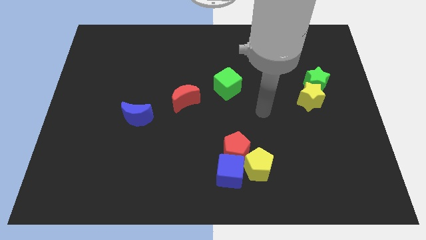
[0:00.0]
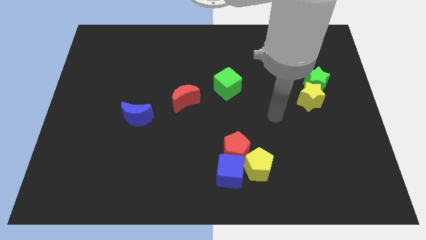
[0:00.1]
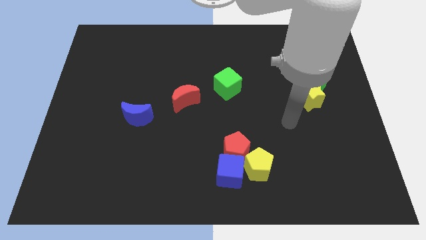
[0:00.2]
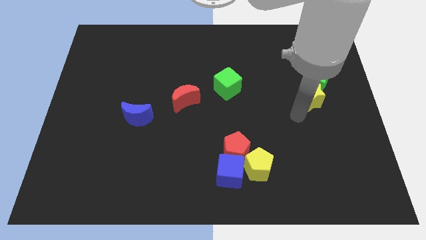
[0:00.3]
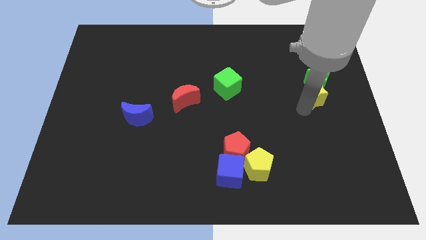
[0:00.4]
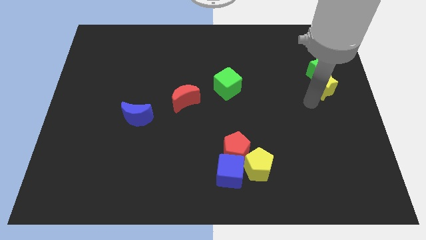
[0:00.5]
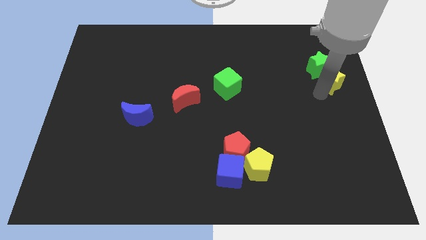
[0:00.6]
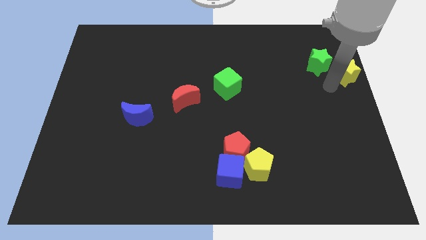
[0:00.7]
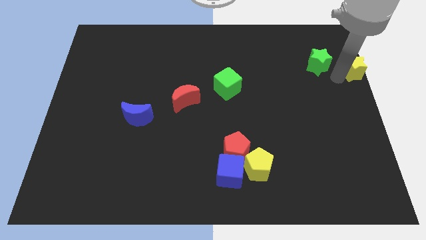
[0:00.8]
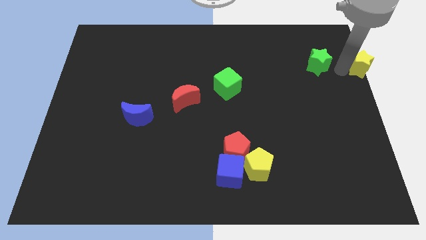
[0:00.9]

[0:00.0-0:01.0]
move the green star away from the yellow star

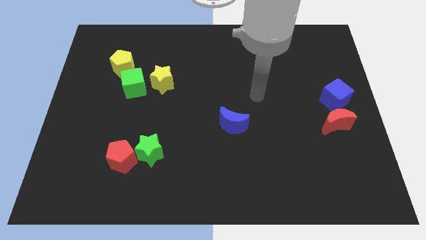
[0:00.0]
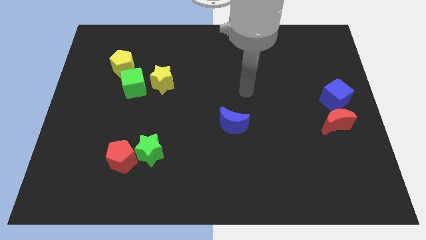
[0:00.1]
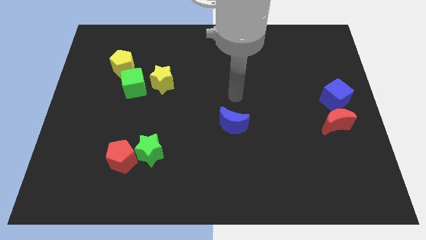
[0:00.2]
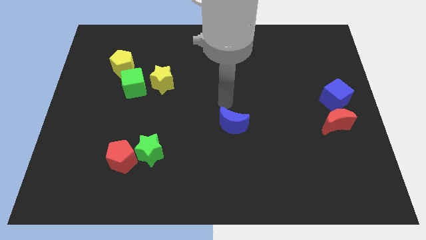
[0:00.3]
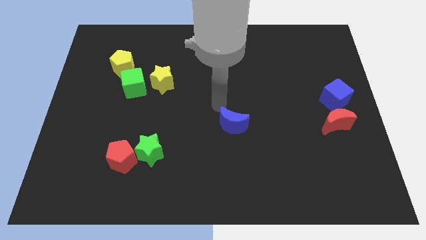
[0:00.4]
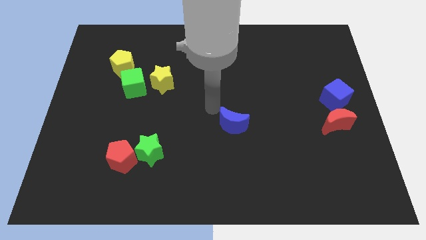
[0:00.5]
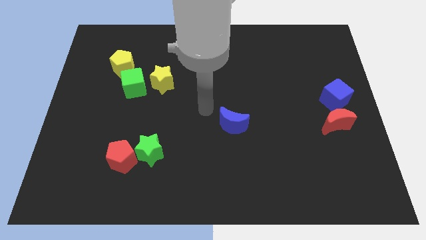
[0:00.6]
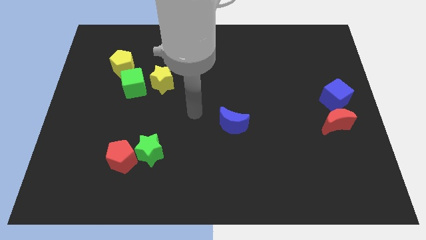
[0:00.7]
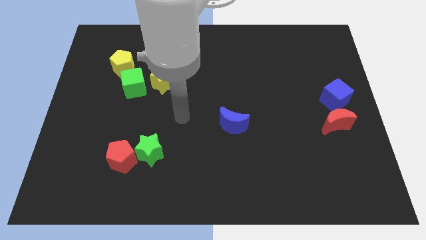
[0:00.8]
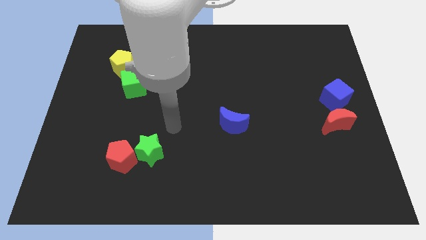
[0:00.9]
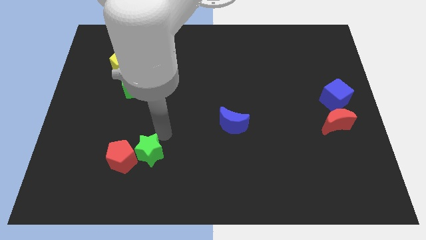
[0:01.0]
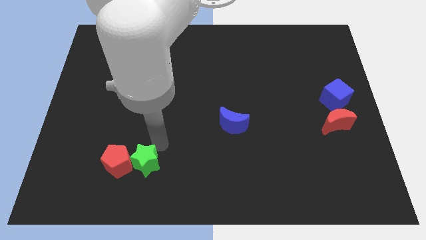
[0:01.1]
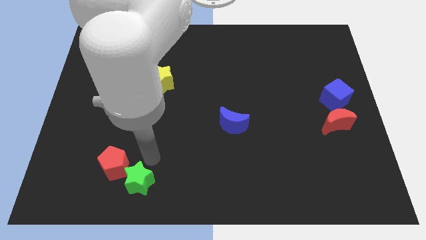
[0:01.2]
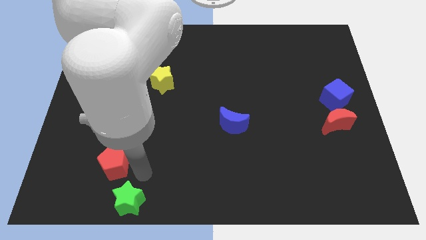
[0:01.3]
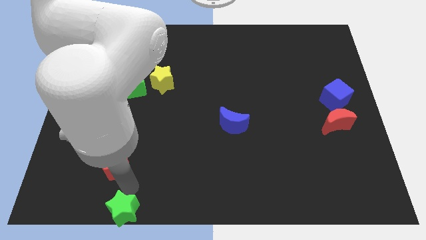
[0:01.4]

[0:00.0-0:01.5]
move the red pentagon away from the green star

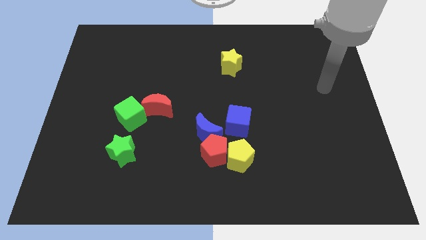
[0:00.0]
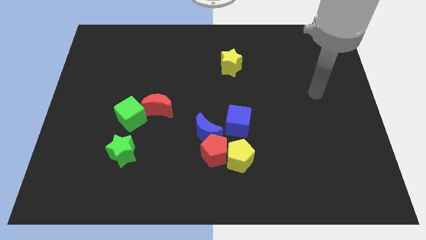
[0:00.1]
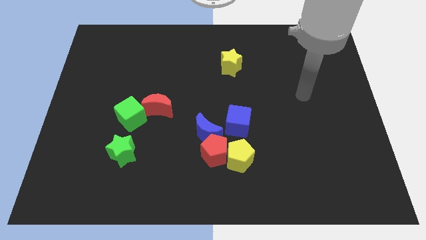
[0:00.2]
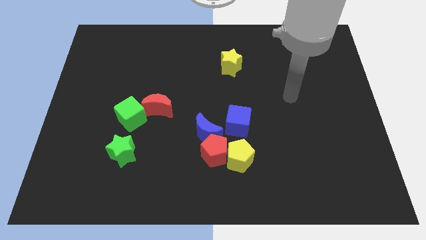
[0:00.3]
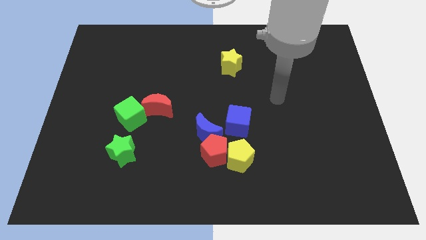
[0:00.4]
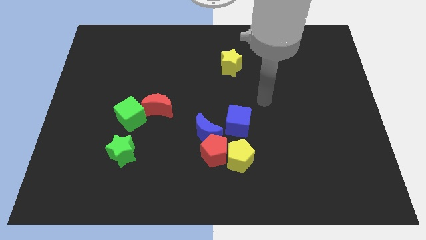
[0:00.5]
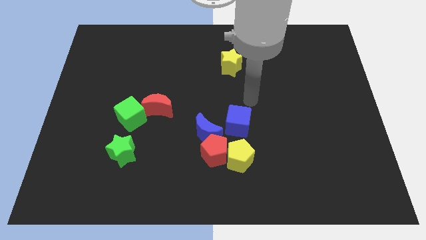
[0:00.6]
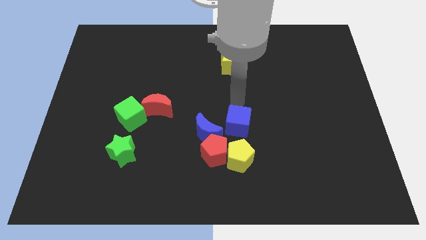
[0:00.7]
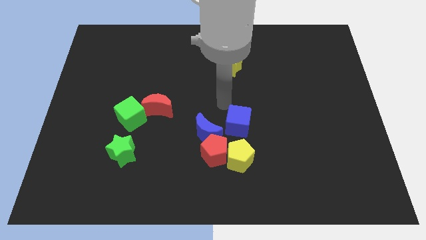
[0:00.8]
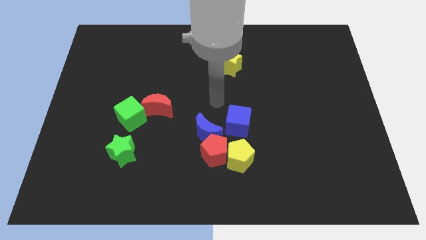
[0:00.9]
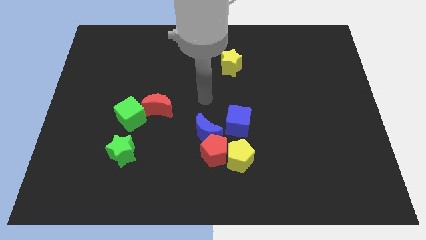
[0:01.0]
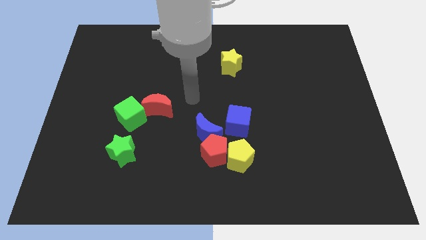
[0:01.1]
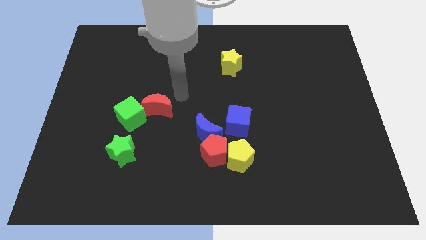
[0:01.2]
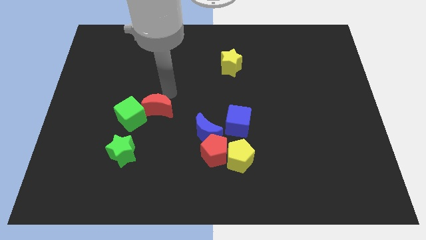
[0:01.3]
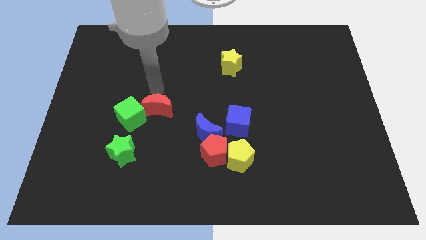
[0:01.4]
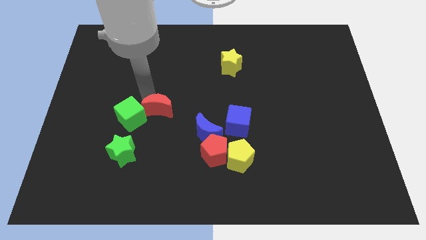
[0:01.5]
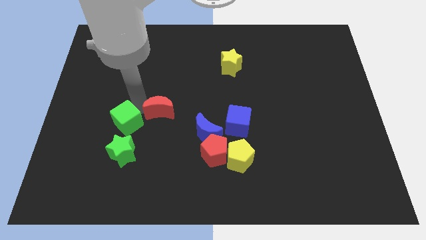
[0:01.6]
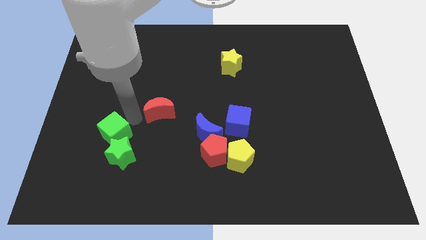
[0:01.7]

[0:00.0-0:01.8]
move the red moon away from the green cube

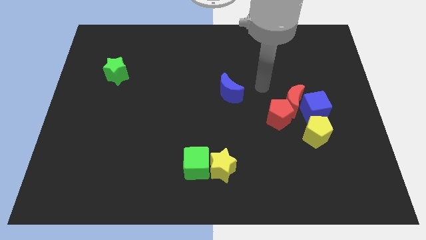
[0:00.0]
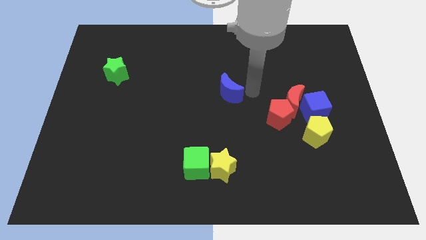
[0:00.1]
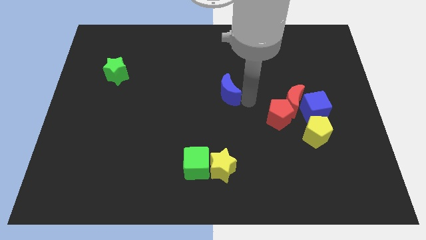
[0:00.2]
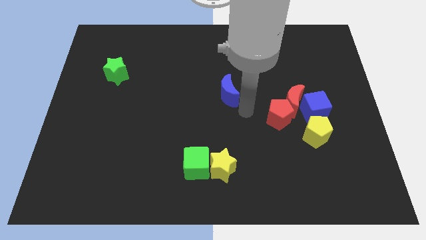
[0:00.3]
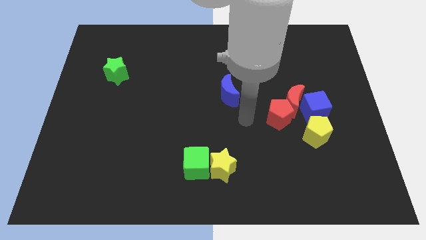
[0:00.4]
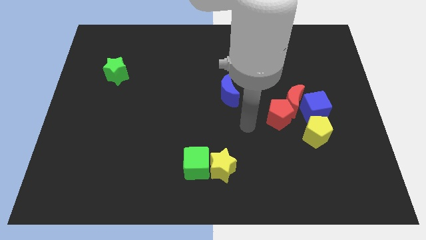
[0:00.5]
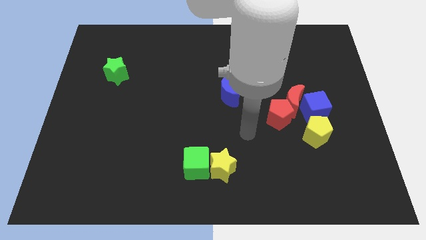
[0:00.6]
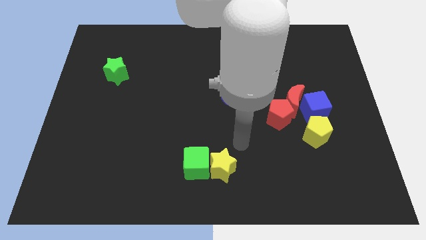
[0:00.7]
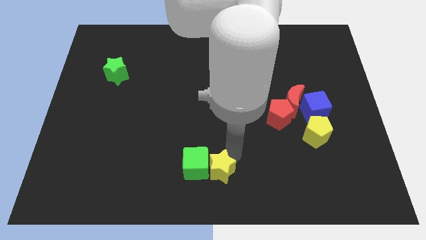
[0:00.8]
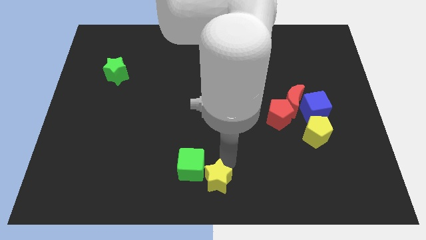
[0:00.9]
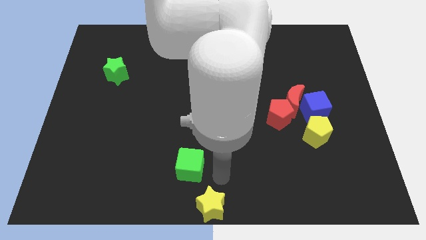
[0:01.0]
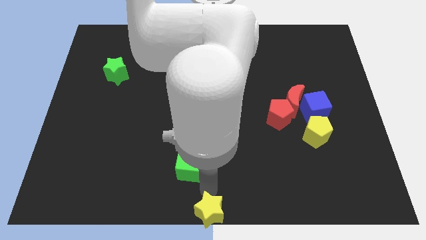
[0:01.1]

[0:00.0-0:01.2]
separate the green cube from the yellow star

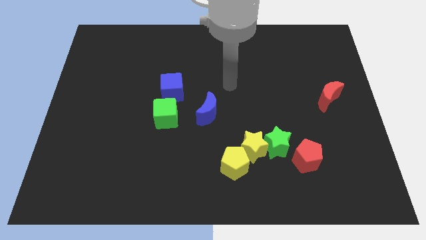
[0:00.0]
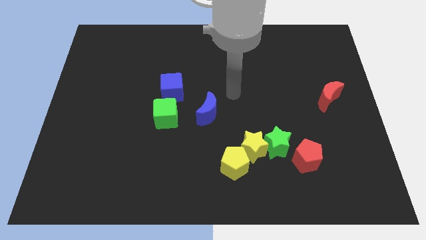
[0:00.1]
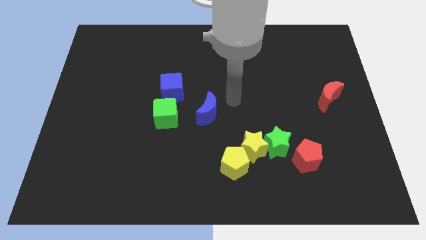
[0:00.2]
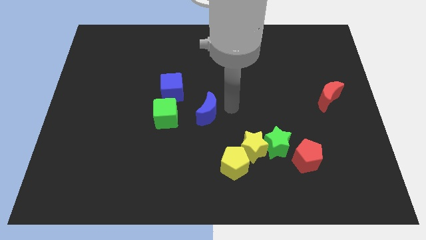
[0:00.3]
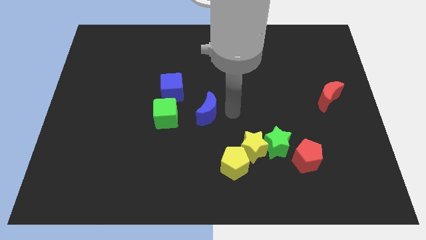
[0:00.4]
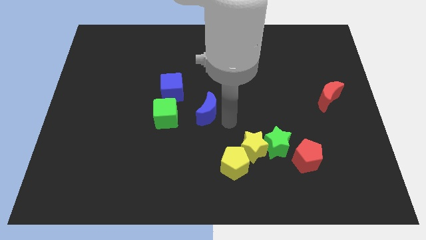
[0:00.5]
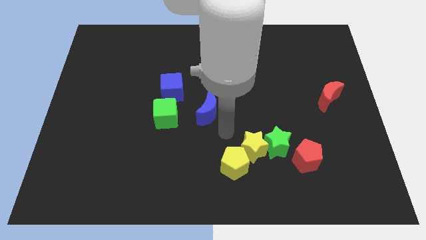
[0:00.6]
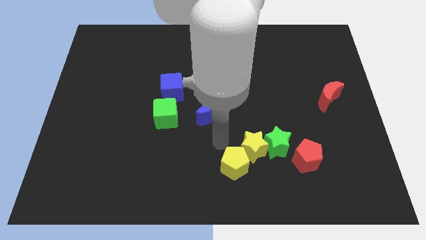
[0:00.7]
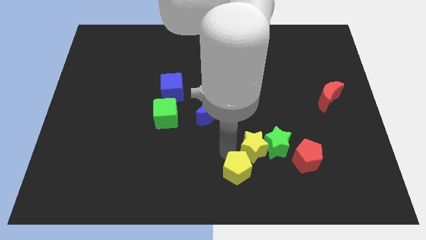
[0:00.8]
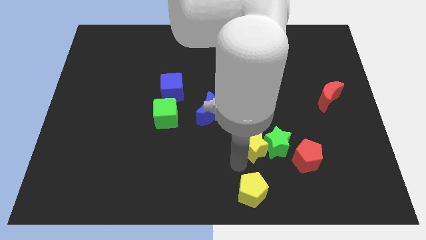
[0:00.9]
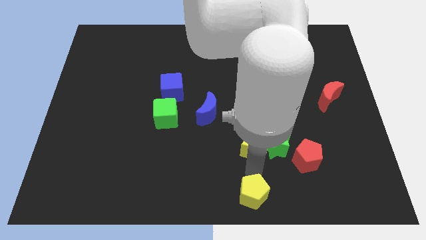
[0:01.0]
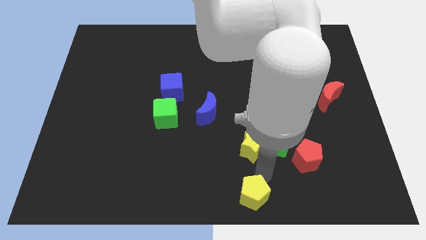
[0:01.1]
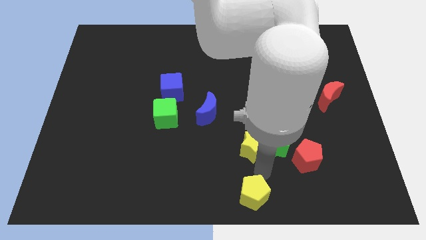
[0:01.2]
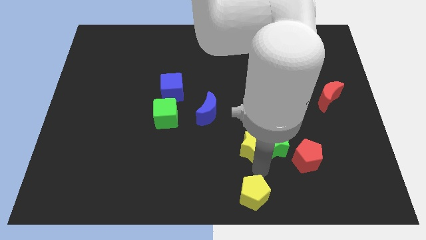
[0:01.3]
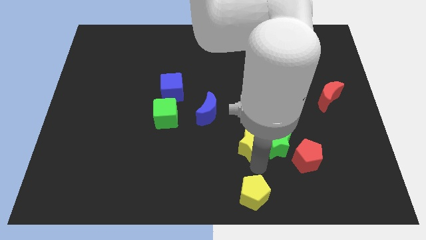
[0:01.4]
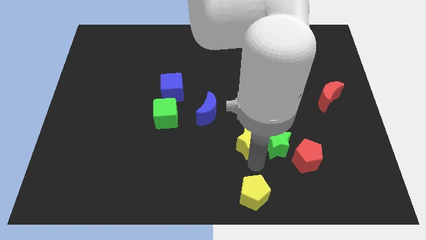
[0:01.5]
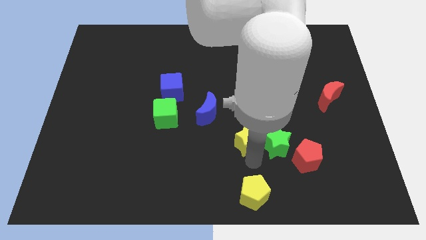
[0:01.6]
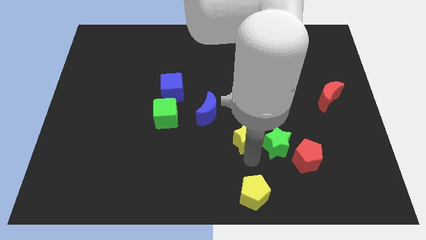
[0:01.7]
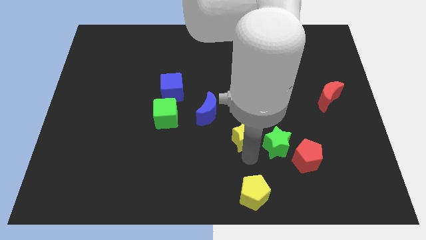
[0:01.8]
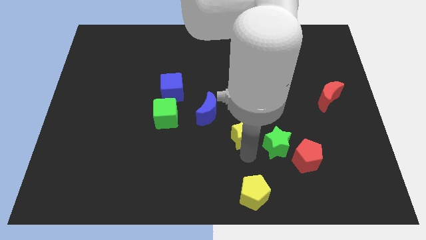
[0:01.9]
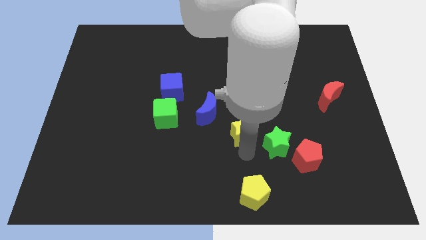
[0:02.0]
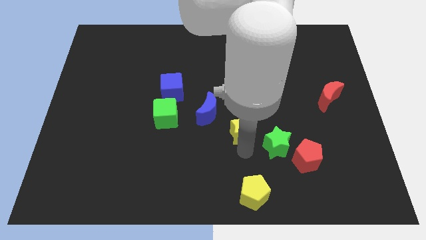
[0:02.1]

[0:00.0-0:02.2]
pull the yellow star apart from the green star and yellow pentagon

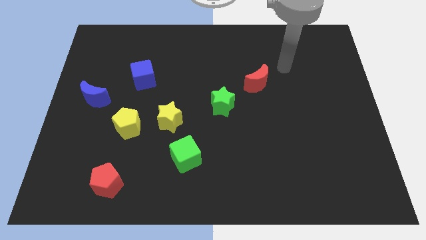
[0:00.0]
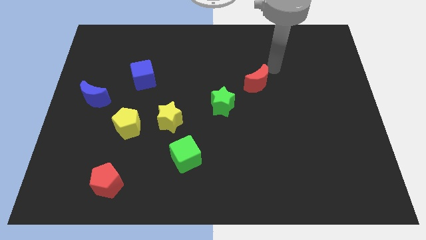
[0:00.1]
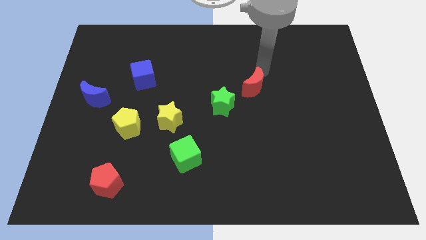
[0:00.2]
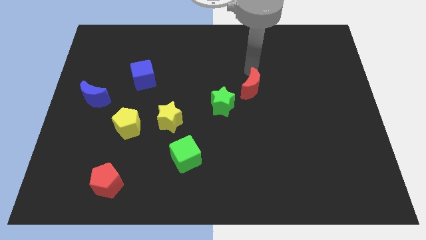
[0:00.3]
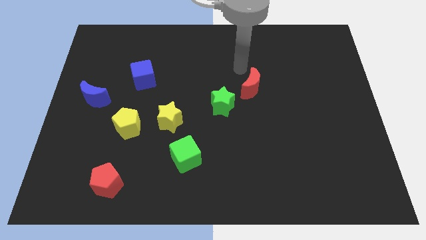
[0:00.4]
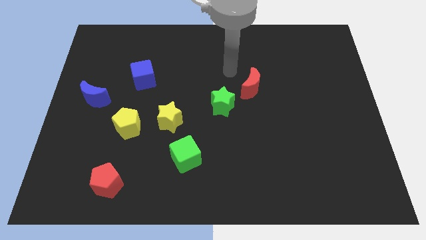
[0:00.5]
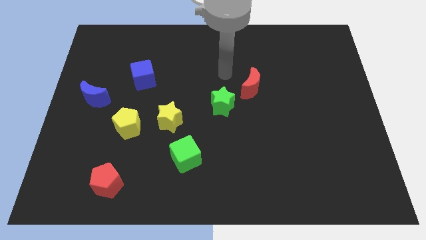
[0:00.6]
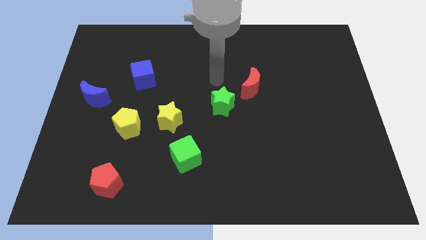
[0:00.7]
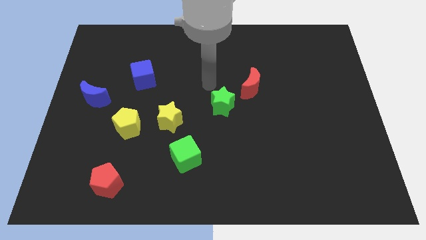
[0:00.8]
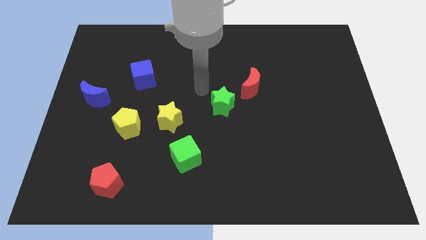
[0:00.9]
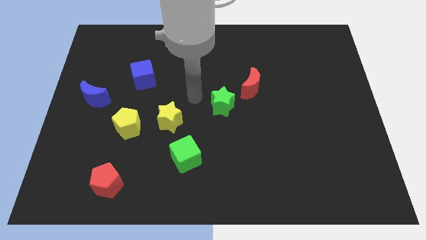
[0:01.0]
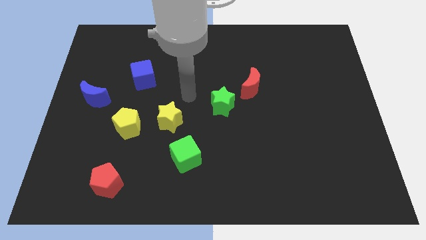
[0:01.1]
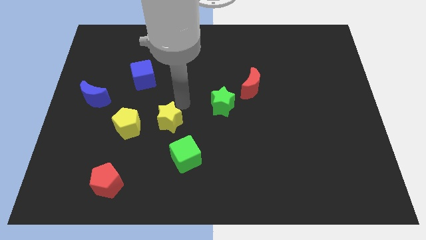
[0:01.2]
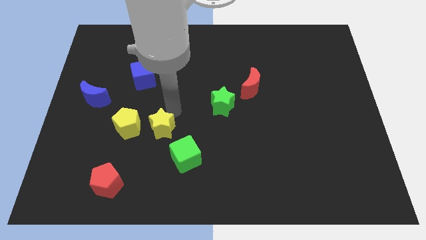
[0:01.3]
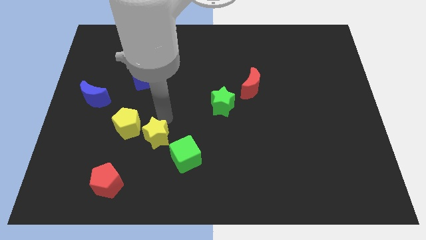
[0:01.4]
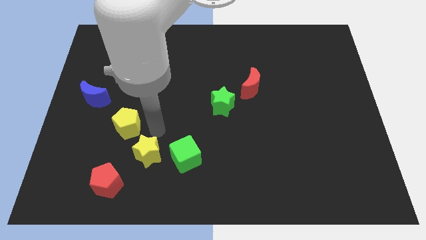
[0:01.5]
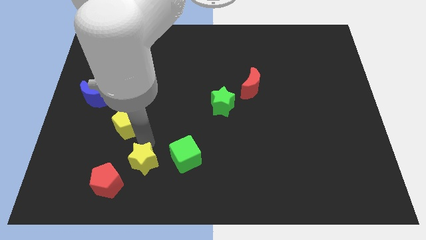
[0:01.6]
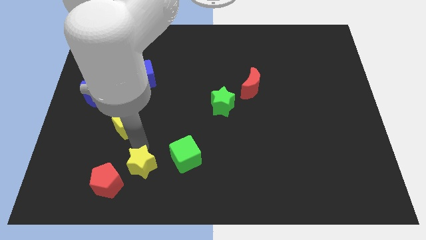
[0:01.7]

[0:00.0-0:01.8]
separate the yellow pentagon from the yellow star
